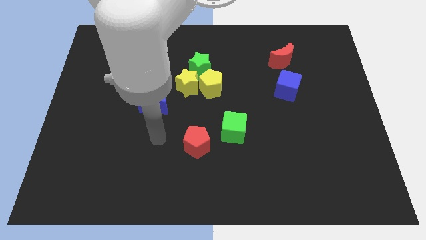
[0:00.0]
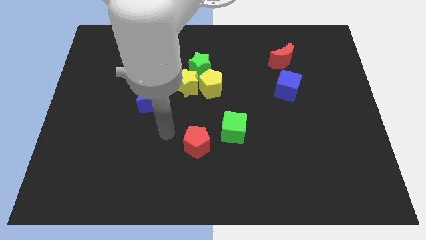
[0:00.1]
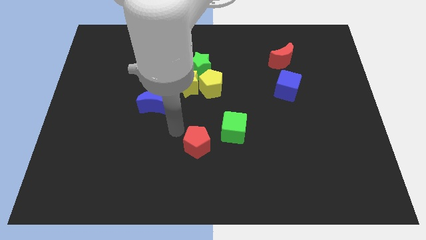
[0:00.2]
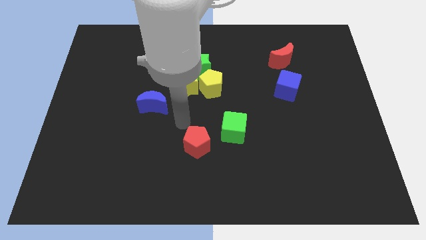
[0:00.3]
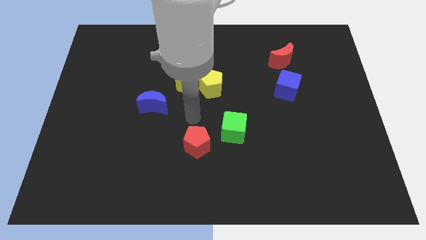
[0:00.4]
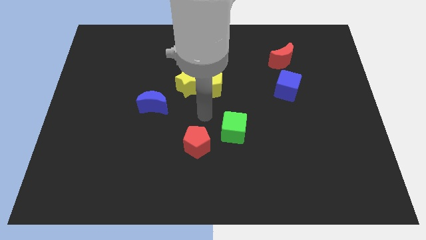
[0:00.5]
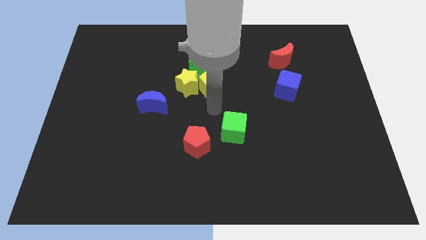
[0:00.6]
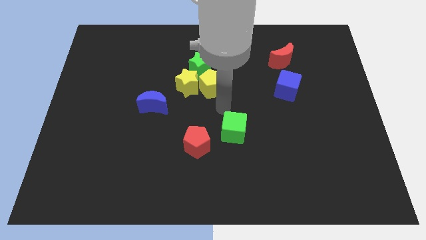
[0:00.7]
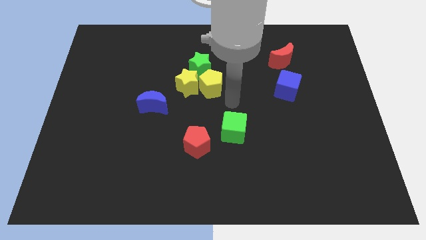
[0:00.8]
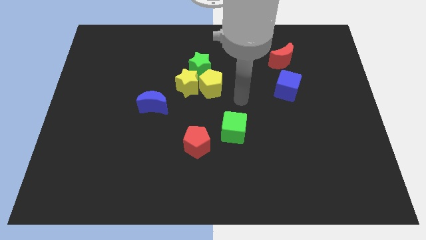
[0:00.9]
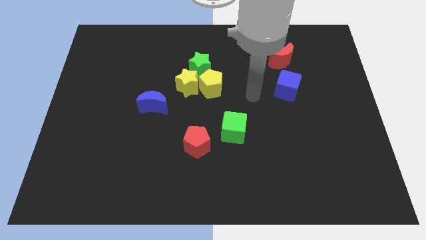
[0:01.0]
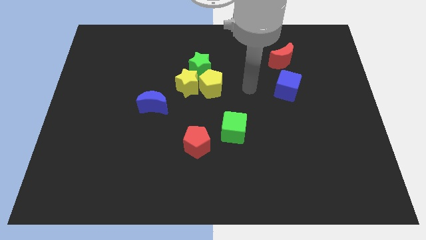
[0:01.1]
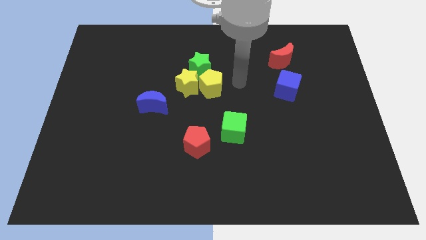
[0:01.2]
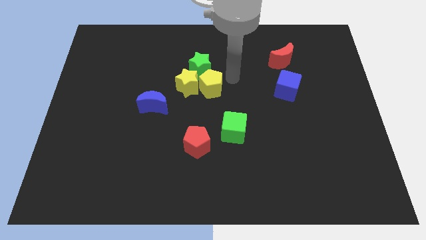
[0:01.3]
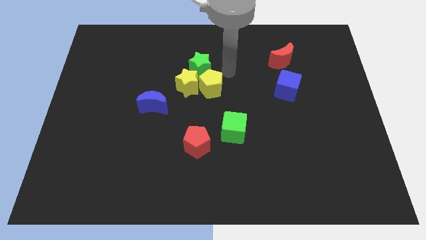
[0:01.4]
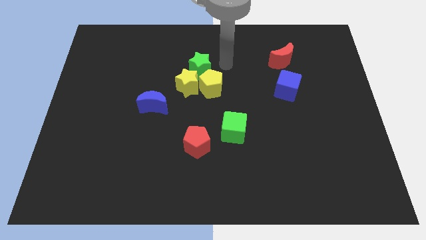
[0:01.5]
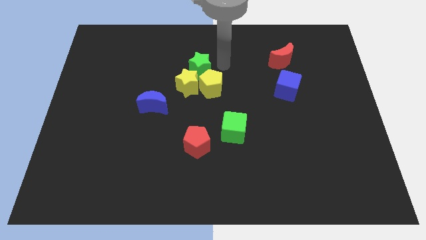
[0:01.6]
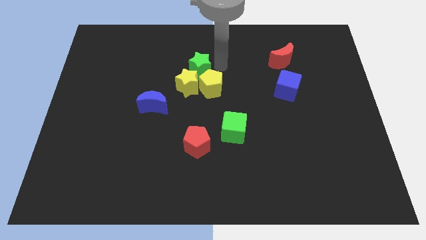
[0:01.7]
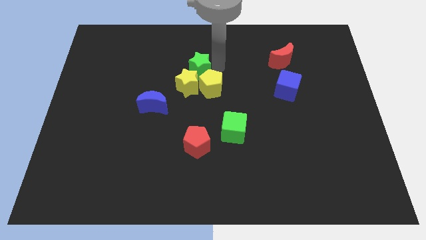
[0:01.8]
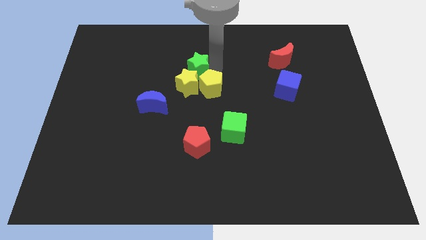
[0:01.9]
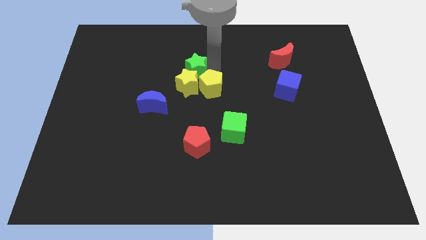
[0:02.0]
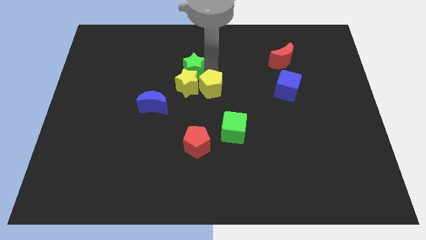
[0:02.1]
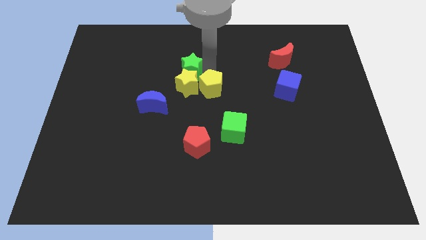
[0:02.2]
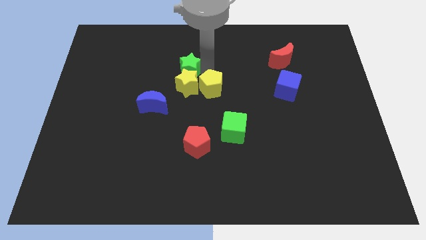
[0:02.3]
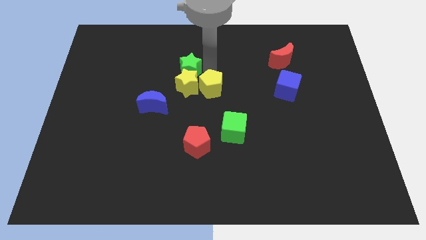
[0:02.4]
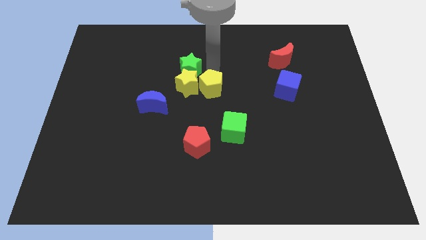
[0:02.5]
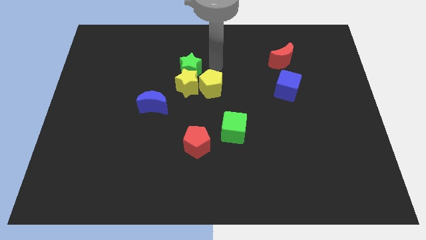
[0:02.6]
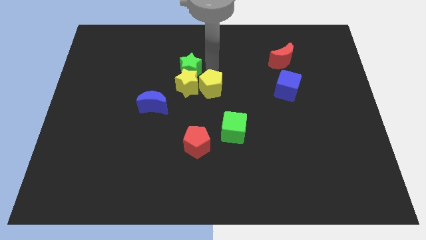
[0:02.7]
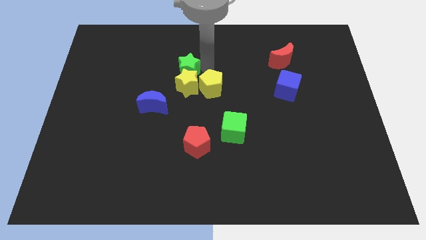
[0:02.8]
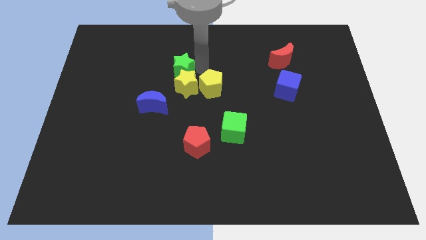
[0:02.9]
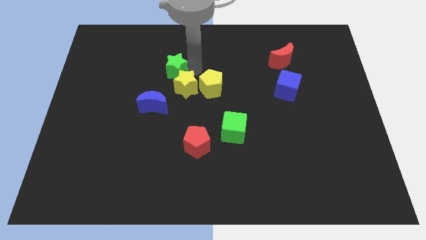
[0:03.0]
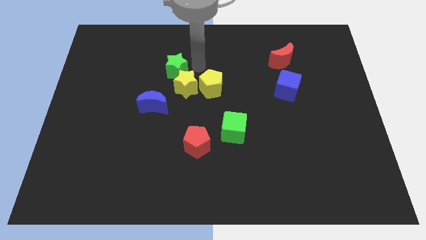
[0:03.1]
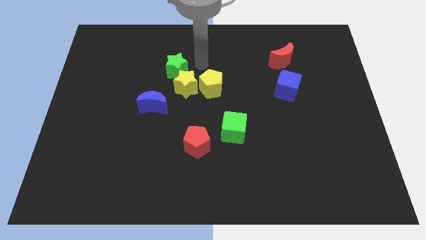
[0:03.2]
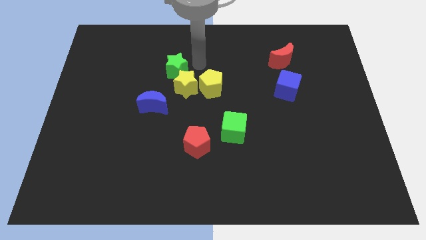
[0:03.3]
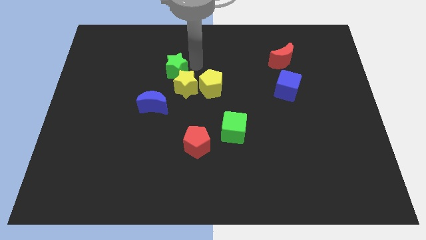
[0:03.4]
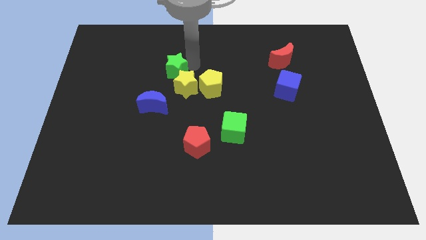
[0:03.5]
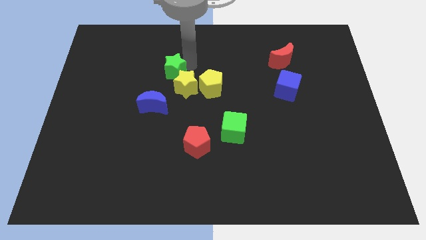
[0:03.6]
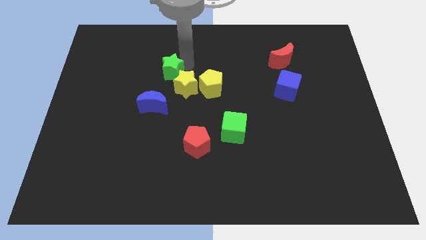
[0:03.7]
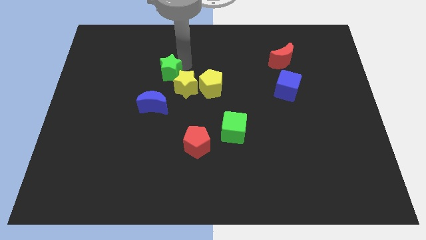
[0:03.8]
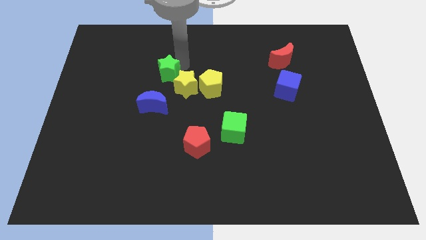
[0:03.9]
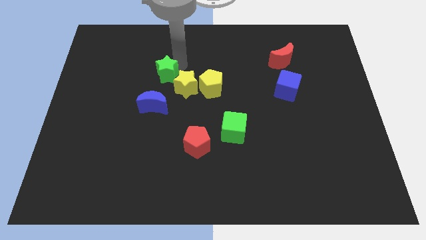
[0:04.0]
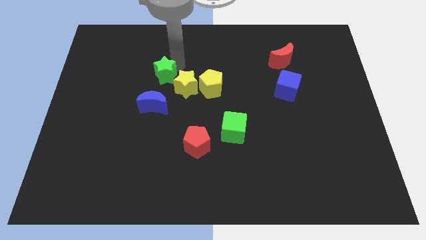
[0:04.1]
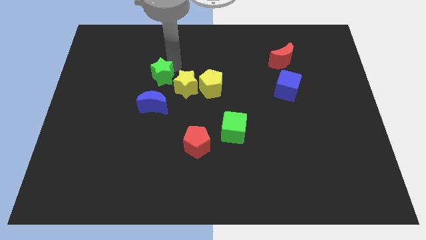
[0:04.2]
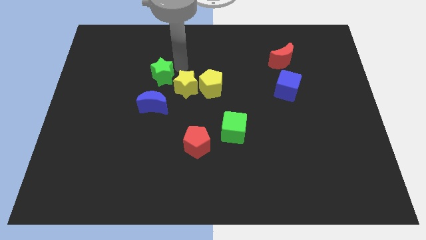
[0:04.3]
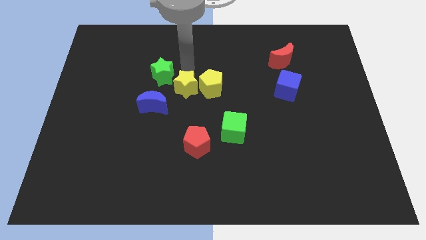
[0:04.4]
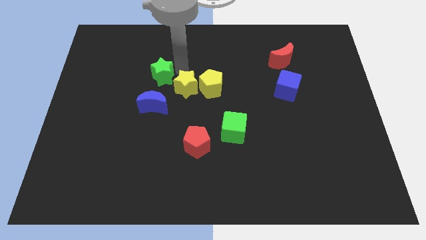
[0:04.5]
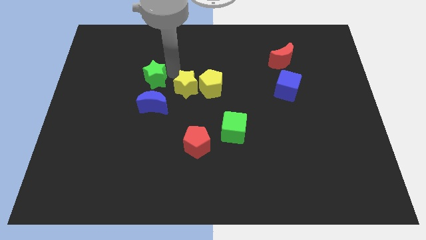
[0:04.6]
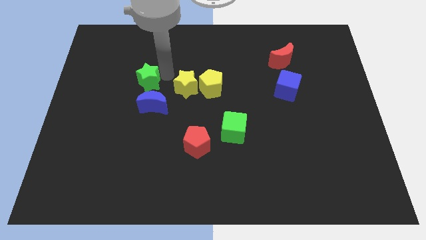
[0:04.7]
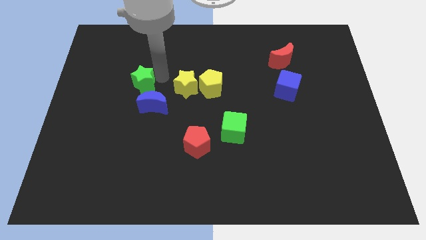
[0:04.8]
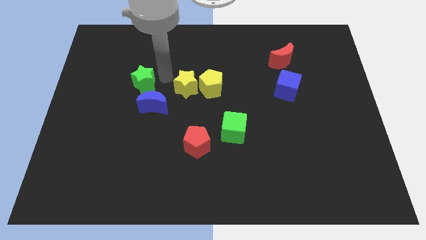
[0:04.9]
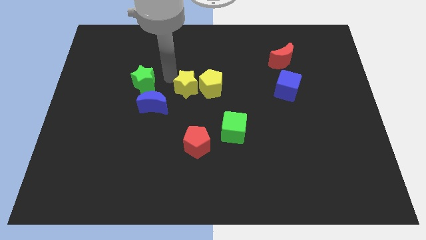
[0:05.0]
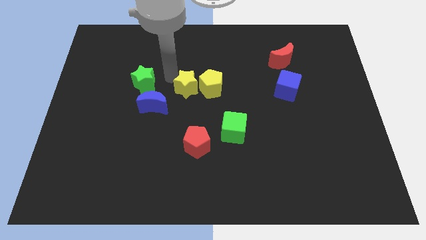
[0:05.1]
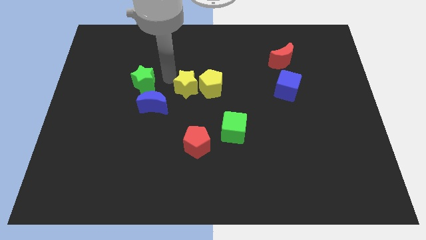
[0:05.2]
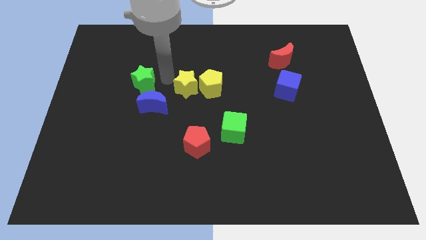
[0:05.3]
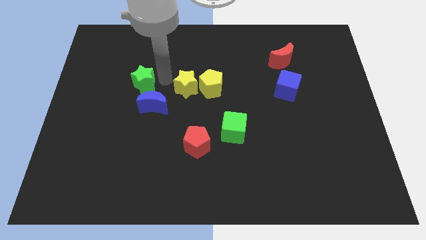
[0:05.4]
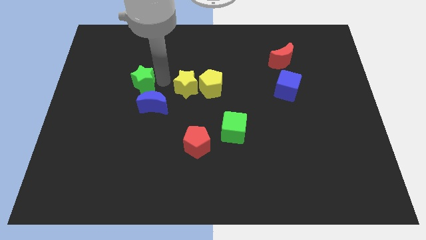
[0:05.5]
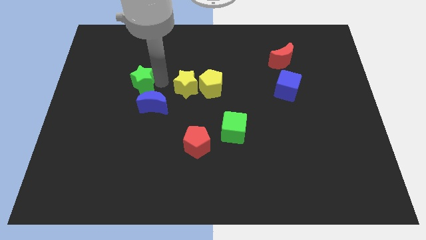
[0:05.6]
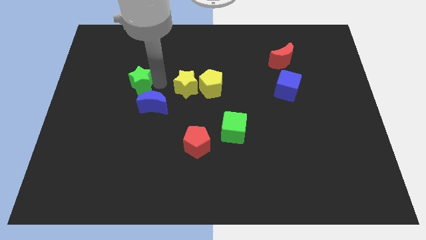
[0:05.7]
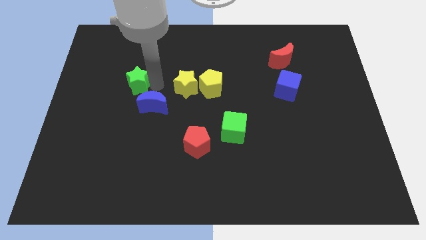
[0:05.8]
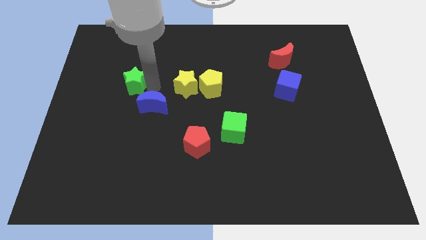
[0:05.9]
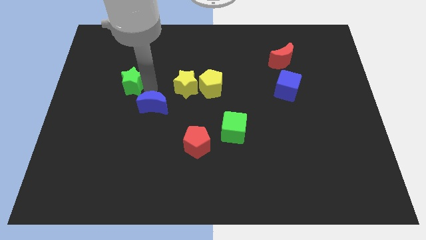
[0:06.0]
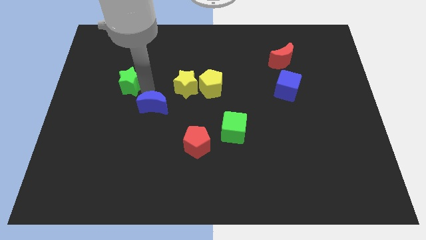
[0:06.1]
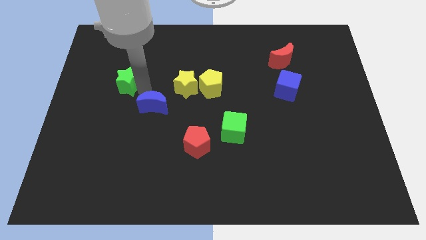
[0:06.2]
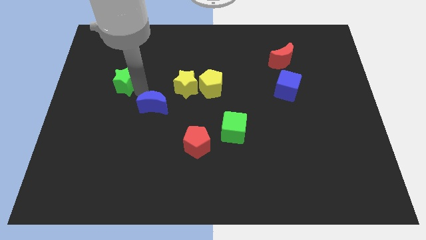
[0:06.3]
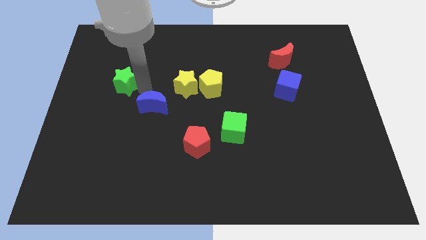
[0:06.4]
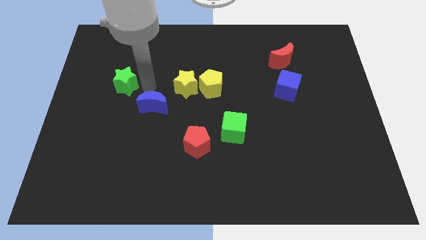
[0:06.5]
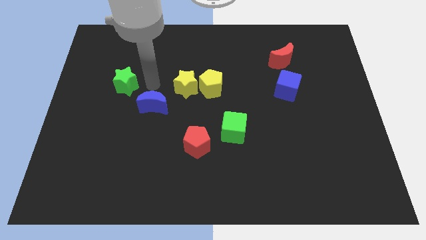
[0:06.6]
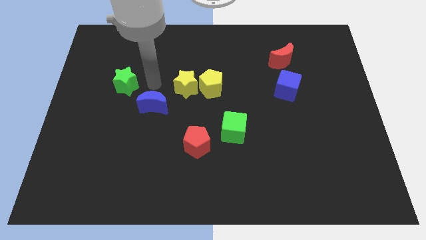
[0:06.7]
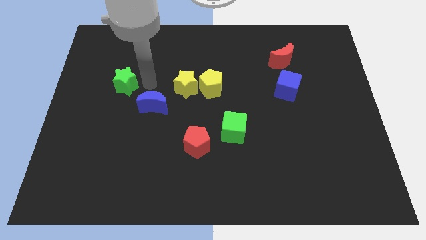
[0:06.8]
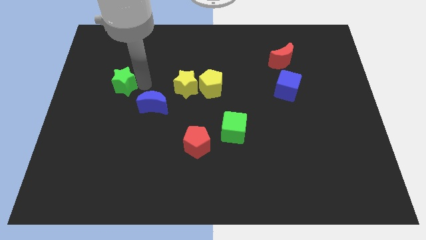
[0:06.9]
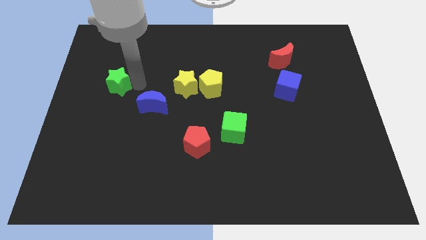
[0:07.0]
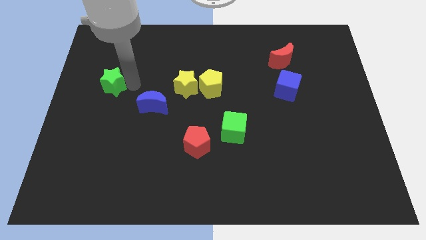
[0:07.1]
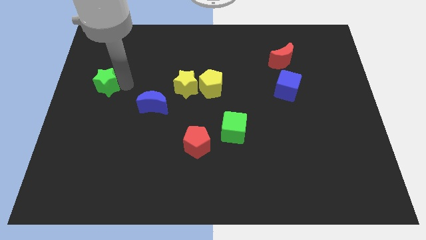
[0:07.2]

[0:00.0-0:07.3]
put the green star to the center left
